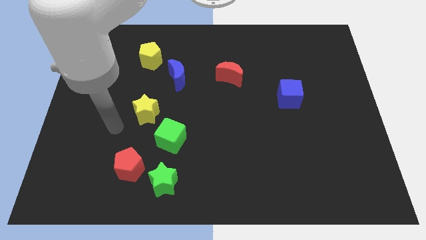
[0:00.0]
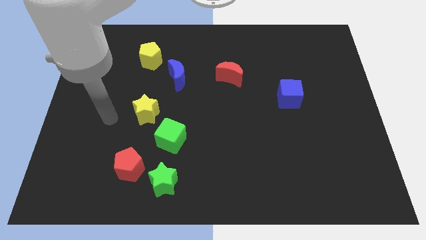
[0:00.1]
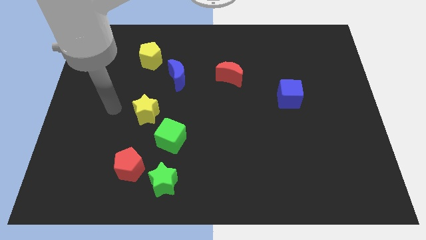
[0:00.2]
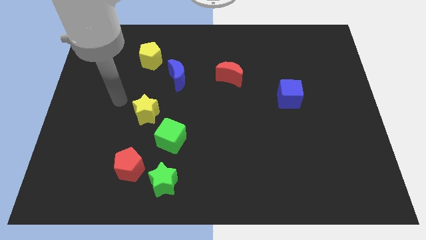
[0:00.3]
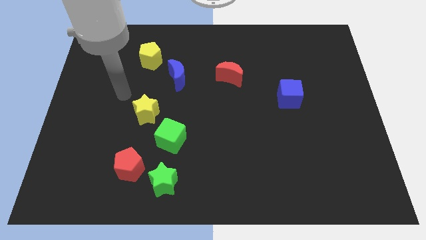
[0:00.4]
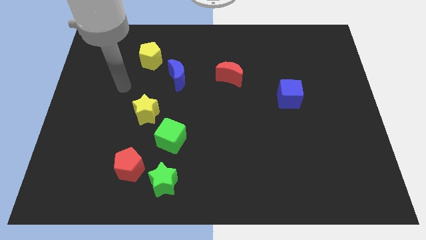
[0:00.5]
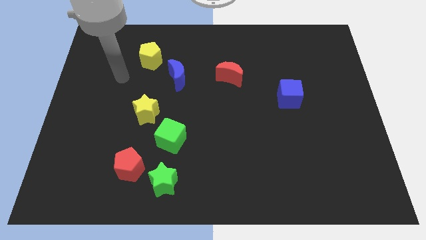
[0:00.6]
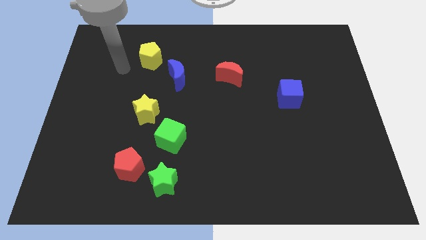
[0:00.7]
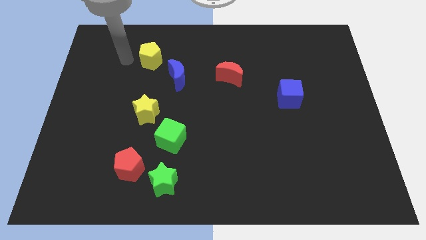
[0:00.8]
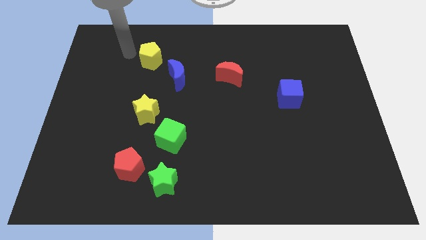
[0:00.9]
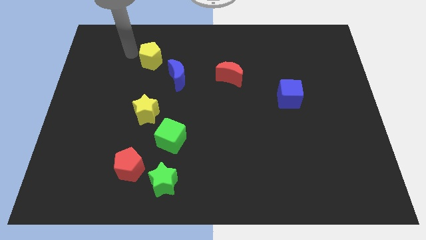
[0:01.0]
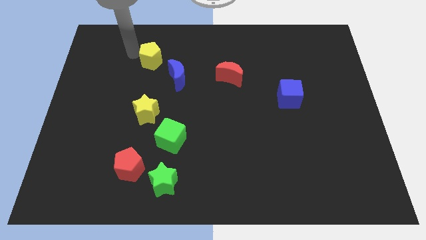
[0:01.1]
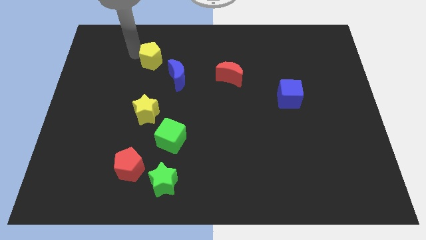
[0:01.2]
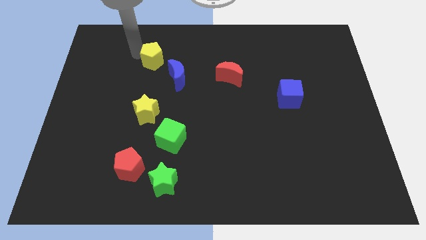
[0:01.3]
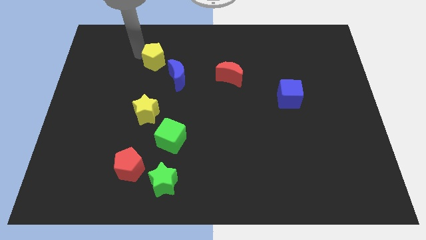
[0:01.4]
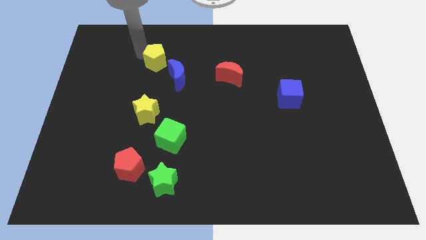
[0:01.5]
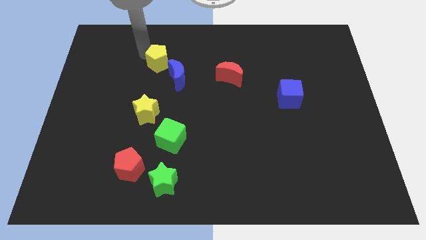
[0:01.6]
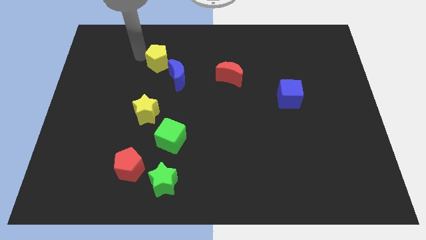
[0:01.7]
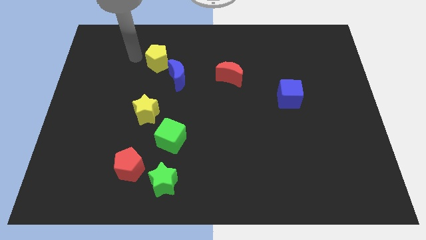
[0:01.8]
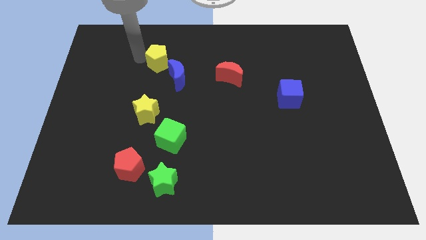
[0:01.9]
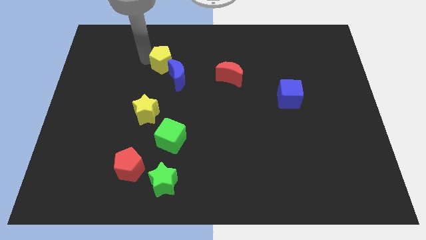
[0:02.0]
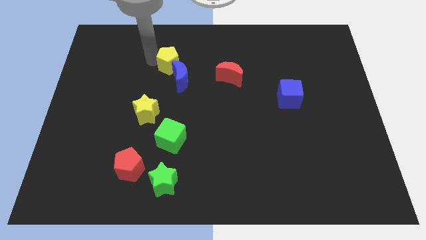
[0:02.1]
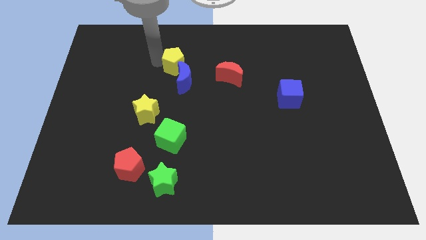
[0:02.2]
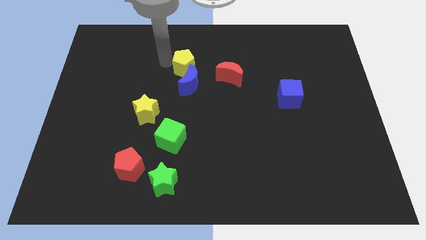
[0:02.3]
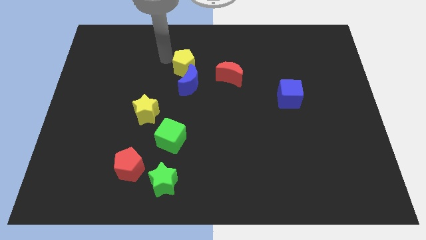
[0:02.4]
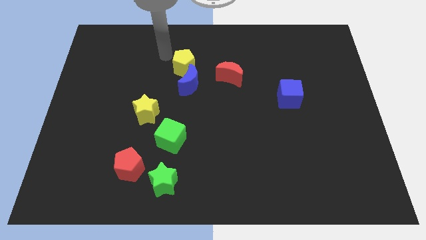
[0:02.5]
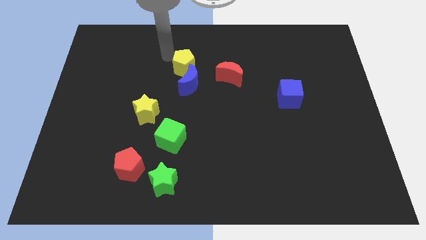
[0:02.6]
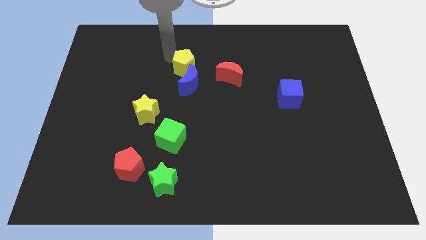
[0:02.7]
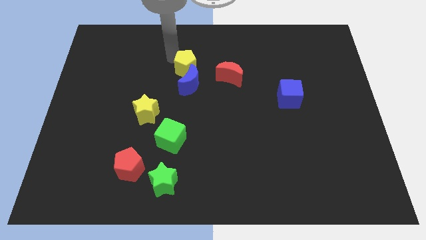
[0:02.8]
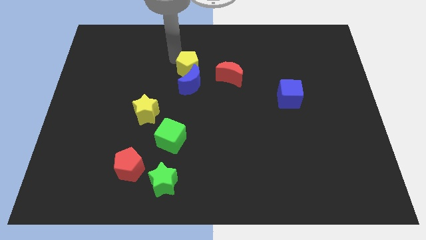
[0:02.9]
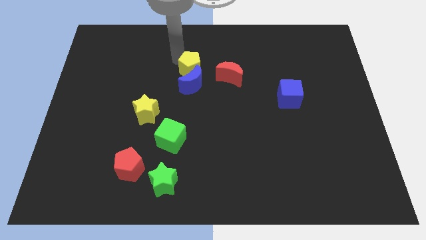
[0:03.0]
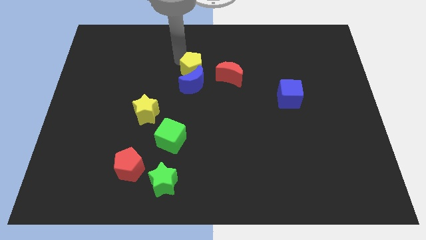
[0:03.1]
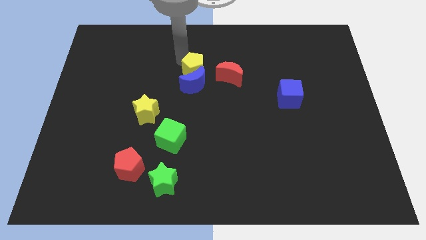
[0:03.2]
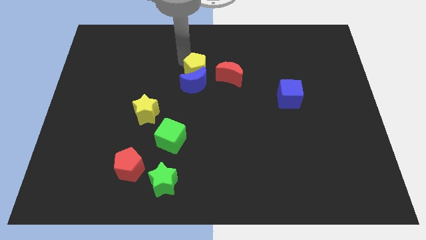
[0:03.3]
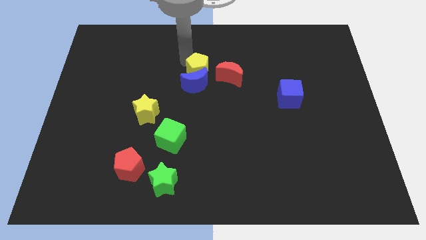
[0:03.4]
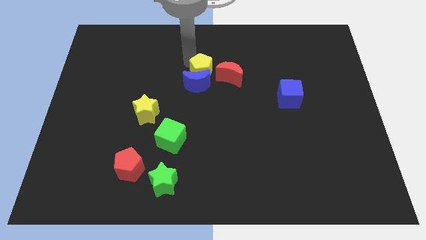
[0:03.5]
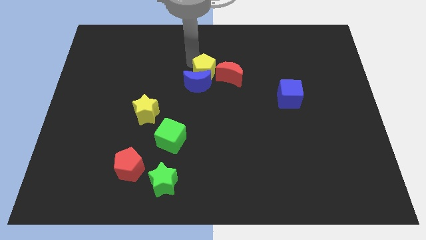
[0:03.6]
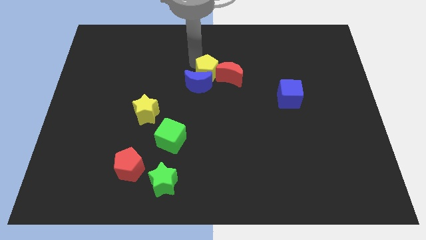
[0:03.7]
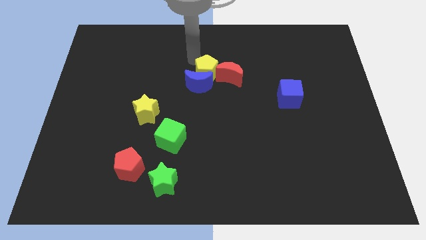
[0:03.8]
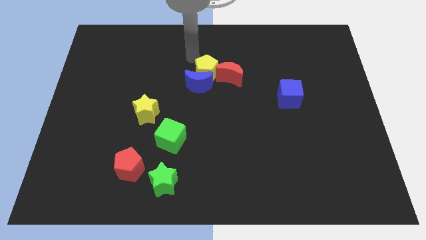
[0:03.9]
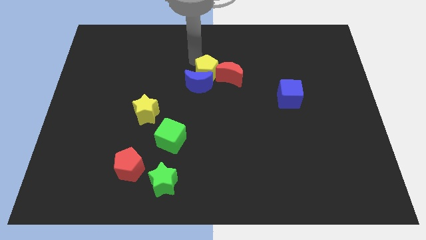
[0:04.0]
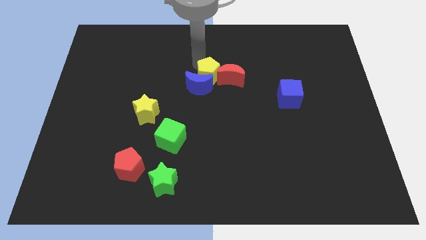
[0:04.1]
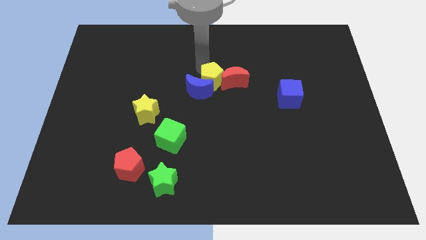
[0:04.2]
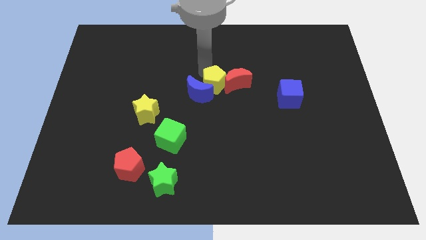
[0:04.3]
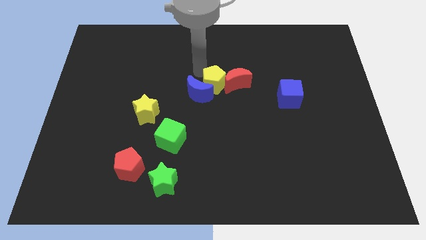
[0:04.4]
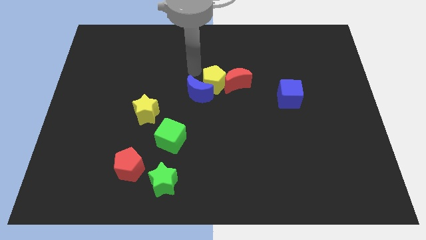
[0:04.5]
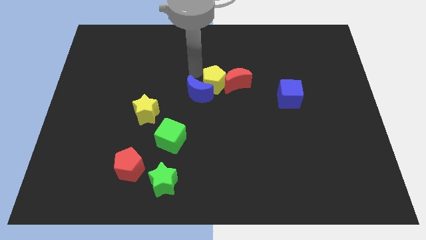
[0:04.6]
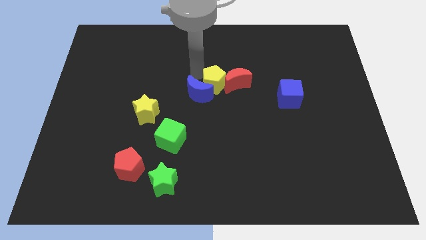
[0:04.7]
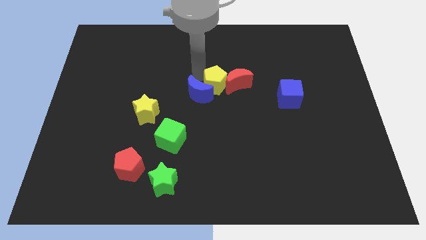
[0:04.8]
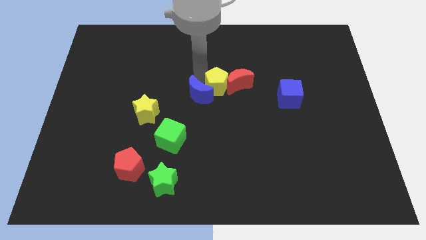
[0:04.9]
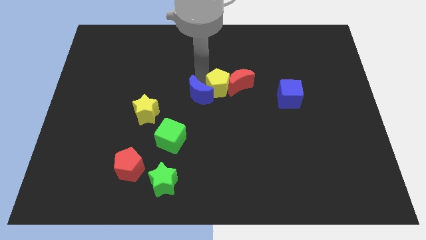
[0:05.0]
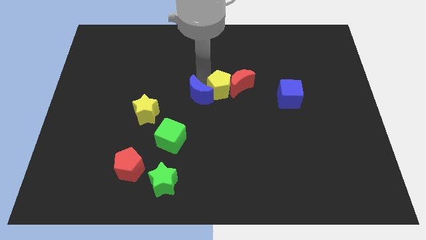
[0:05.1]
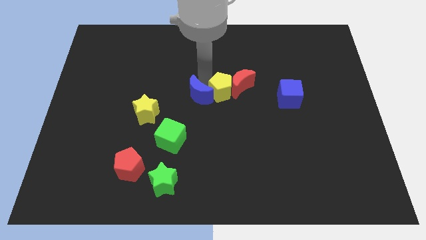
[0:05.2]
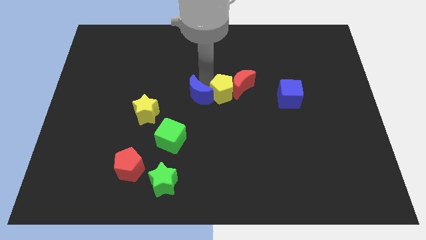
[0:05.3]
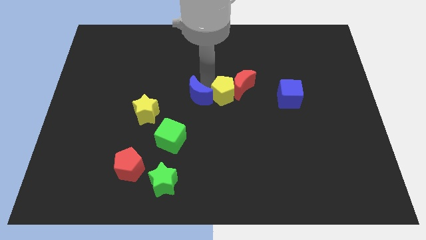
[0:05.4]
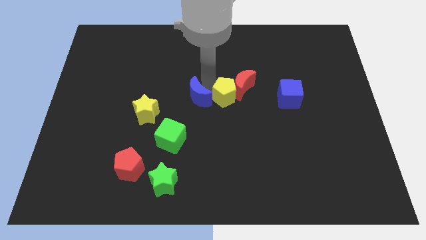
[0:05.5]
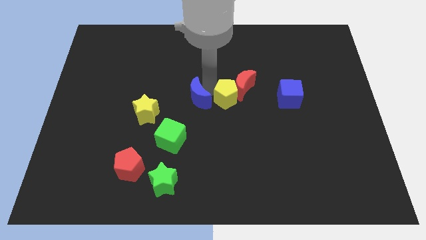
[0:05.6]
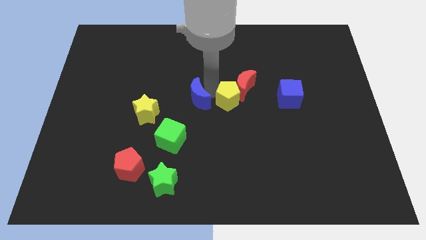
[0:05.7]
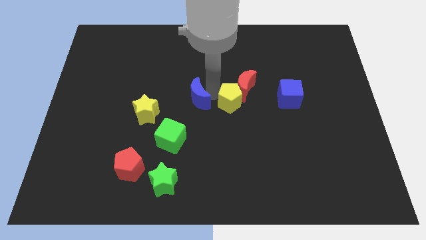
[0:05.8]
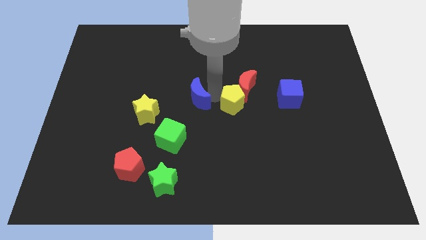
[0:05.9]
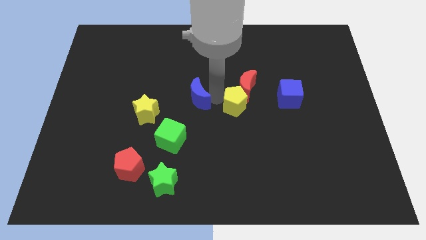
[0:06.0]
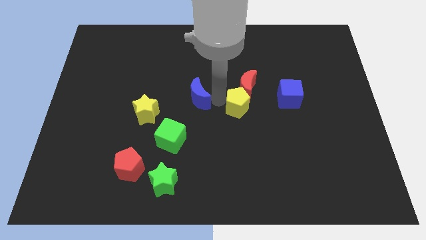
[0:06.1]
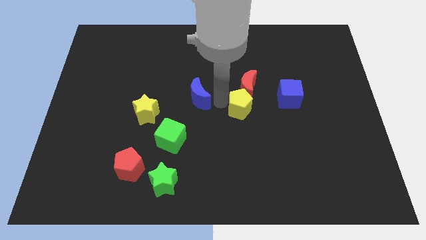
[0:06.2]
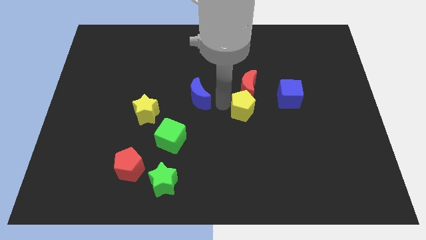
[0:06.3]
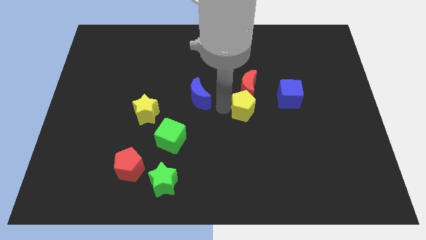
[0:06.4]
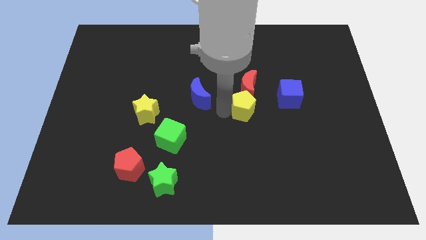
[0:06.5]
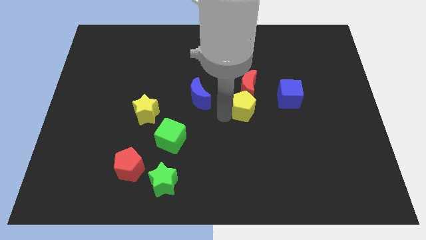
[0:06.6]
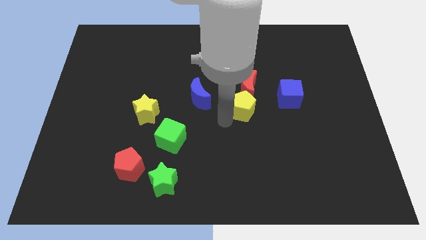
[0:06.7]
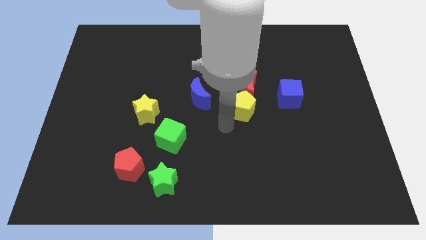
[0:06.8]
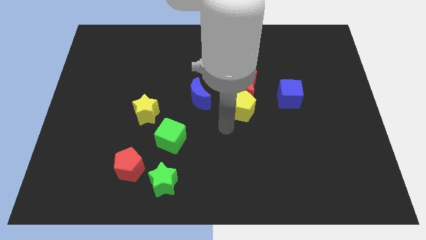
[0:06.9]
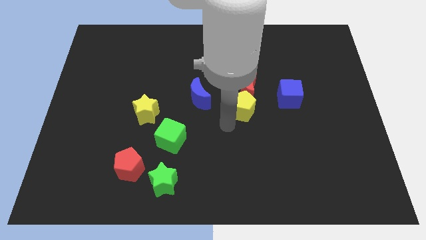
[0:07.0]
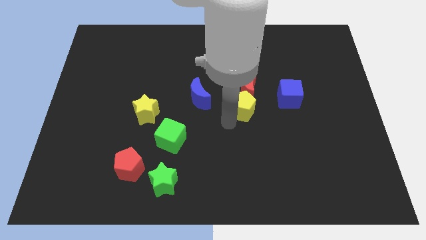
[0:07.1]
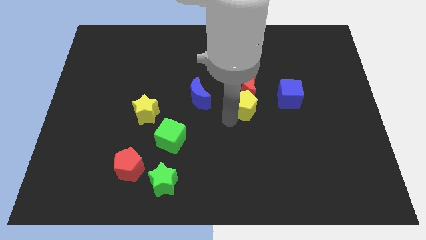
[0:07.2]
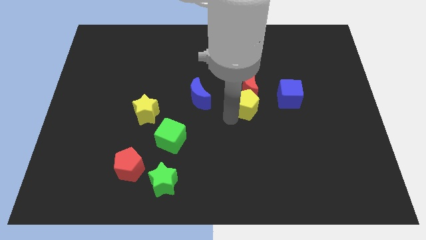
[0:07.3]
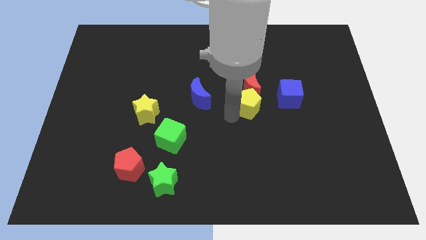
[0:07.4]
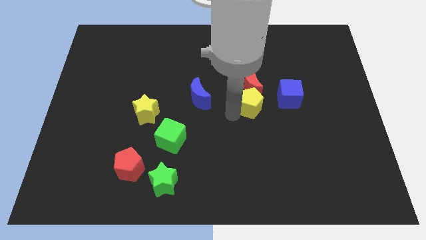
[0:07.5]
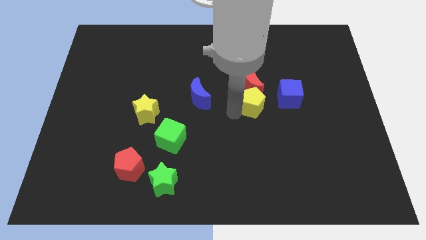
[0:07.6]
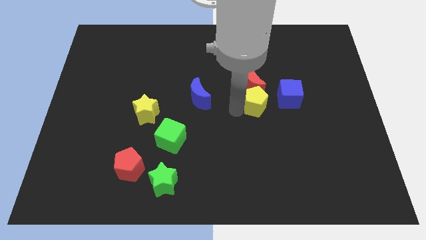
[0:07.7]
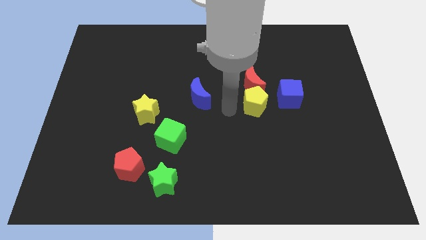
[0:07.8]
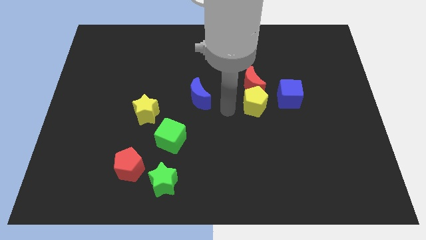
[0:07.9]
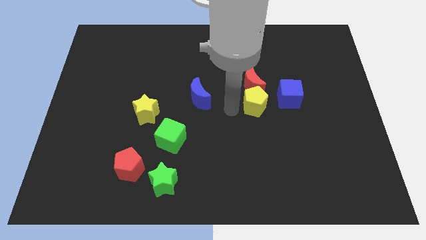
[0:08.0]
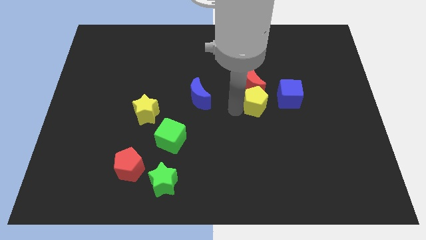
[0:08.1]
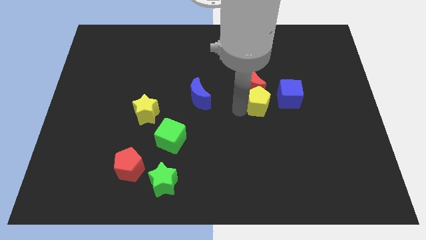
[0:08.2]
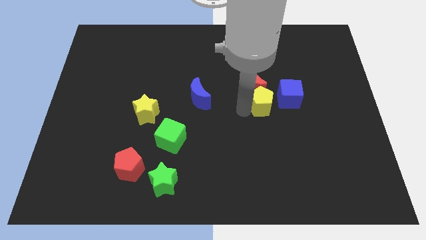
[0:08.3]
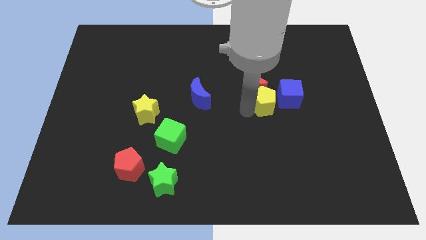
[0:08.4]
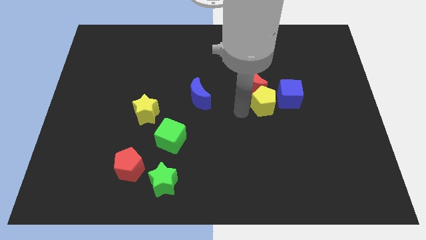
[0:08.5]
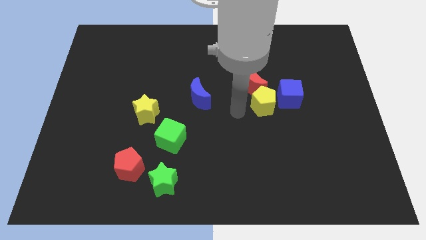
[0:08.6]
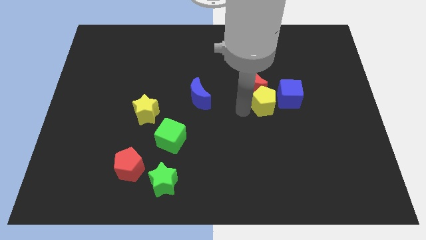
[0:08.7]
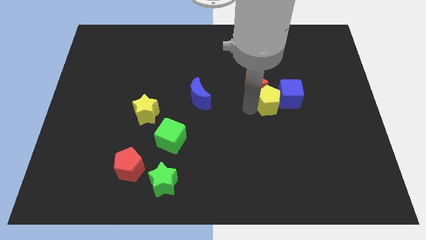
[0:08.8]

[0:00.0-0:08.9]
slide the yellow pentagon to the blue cube
